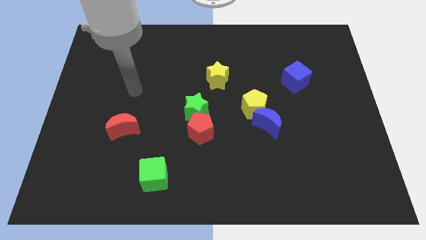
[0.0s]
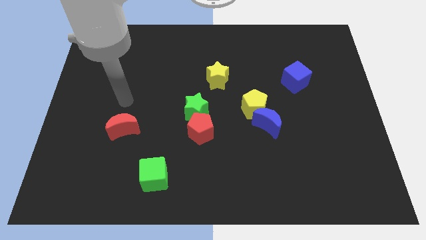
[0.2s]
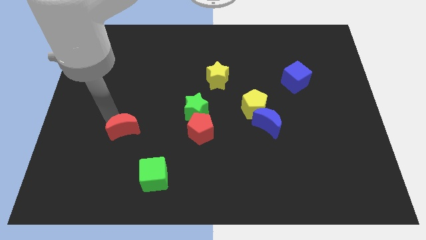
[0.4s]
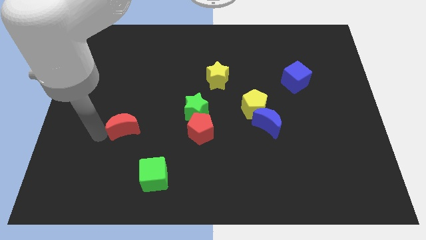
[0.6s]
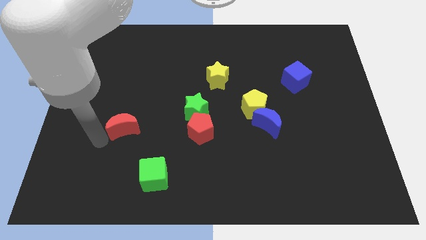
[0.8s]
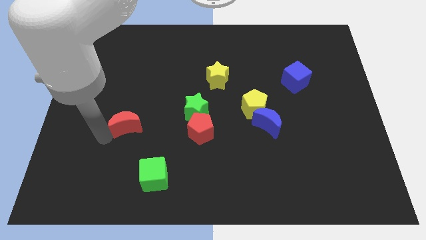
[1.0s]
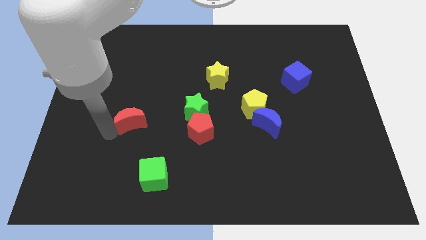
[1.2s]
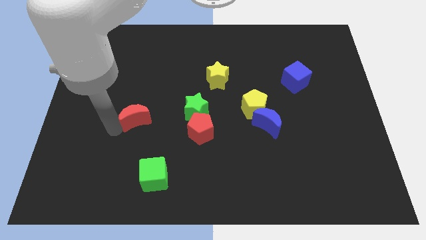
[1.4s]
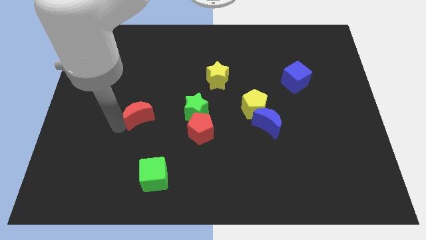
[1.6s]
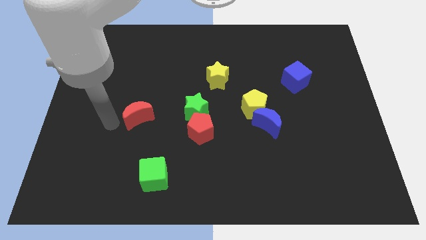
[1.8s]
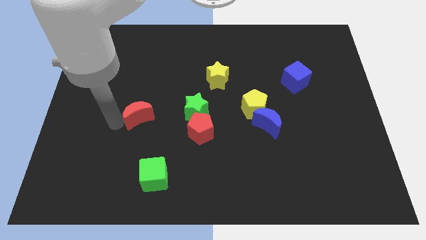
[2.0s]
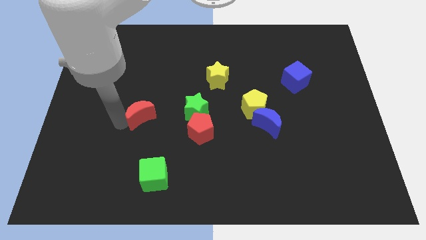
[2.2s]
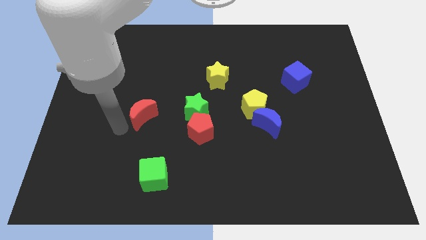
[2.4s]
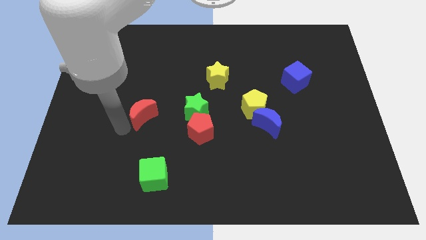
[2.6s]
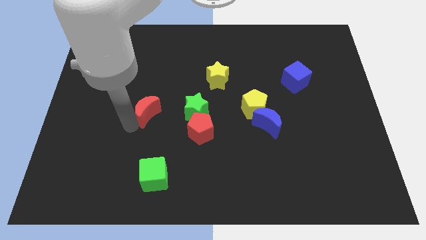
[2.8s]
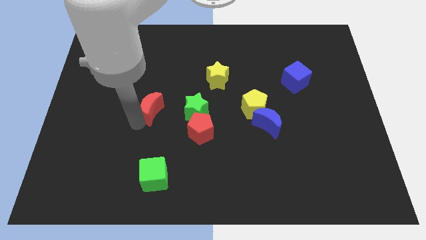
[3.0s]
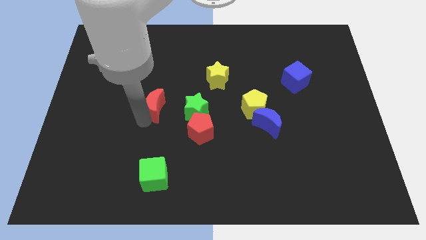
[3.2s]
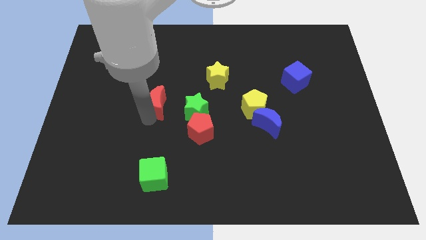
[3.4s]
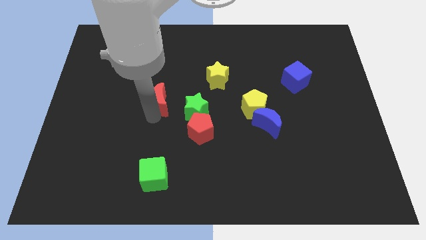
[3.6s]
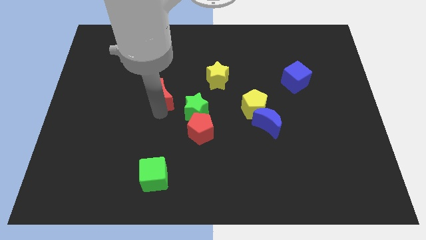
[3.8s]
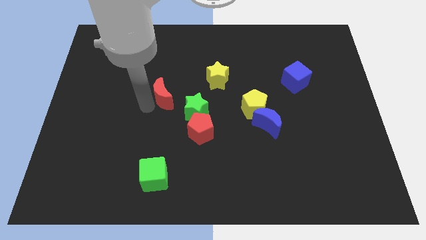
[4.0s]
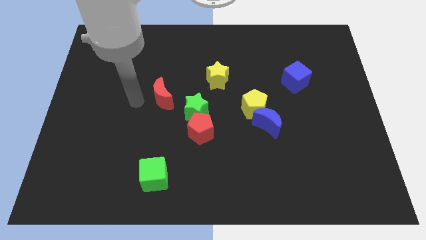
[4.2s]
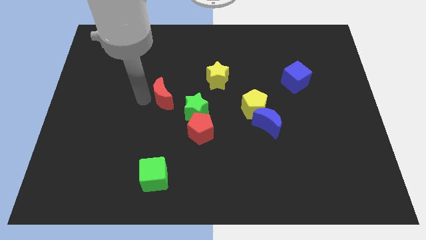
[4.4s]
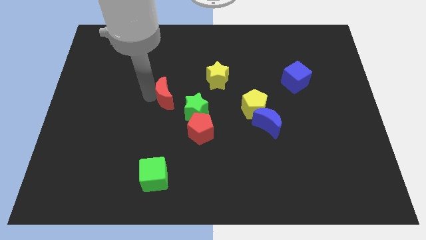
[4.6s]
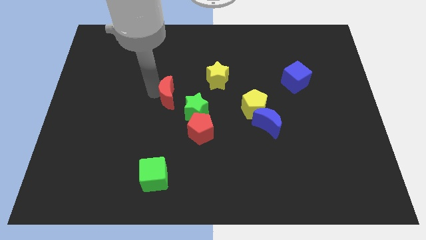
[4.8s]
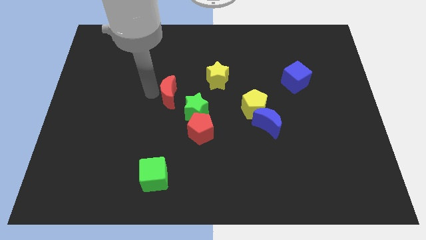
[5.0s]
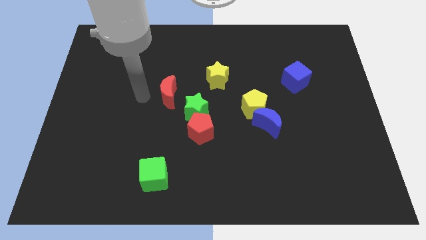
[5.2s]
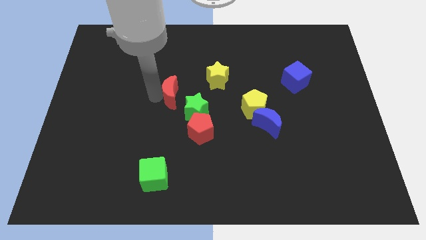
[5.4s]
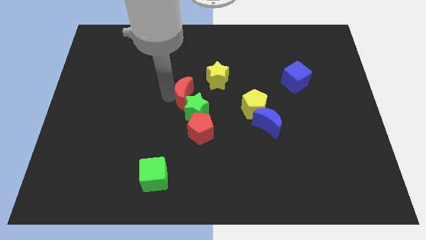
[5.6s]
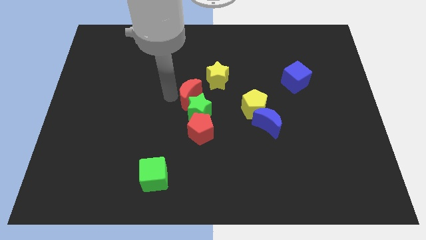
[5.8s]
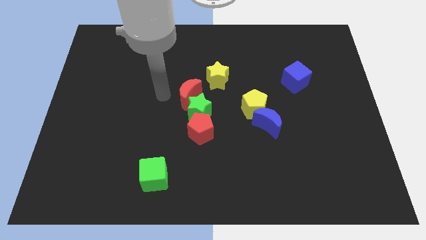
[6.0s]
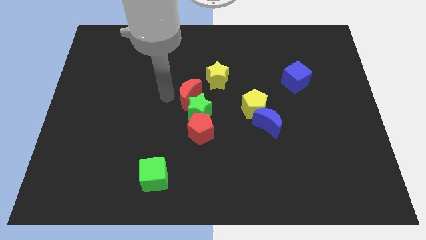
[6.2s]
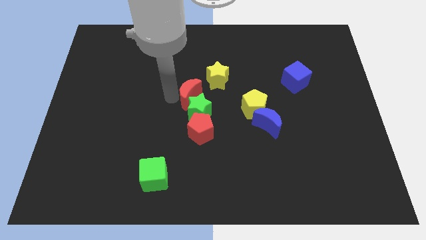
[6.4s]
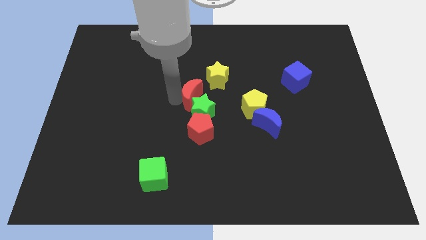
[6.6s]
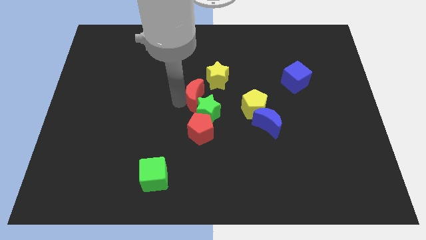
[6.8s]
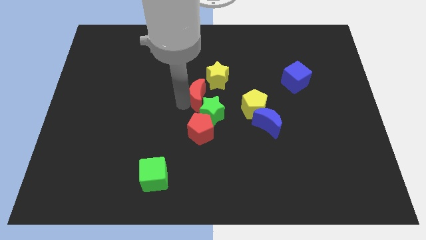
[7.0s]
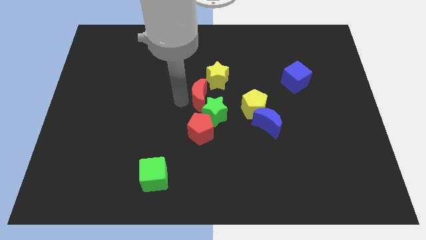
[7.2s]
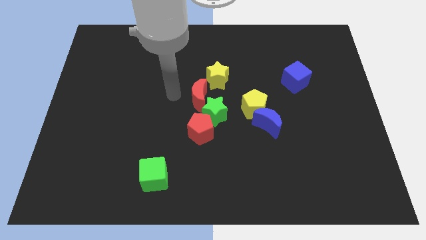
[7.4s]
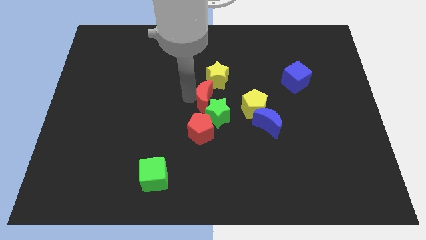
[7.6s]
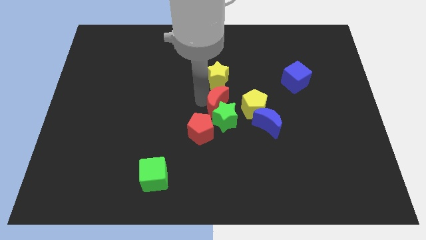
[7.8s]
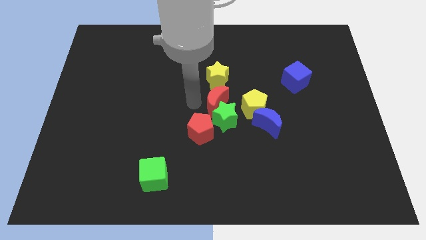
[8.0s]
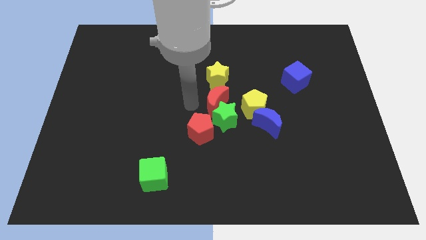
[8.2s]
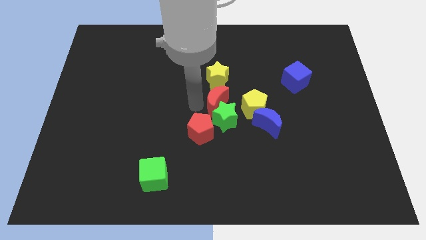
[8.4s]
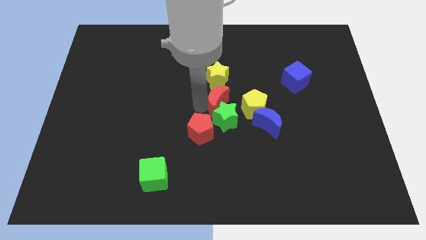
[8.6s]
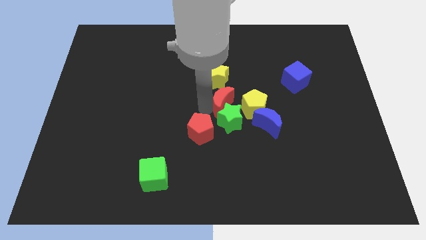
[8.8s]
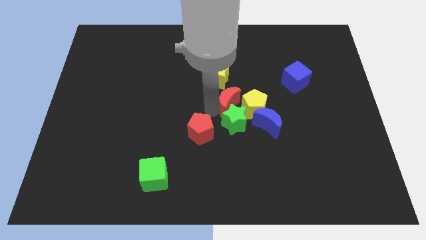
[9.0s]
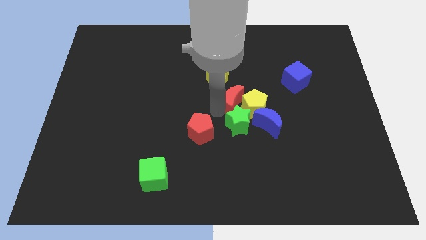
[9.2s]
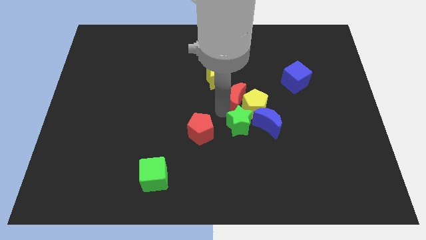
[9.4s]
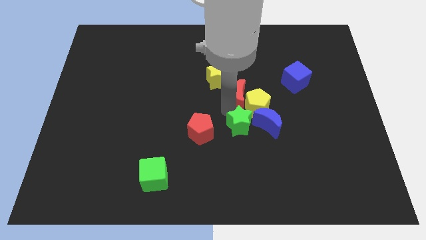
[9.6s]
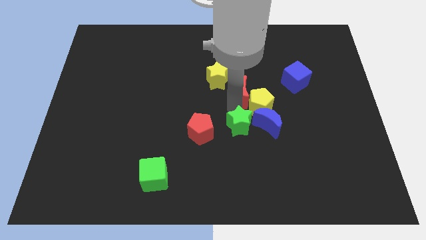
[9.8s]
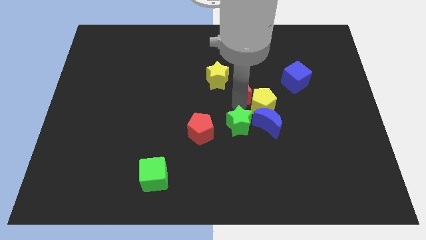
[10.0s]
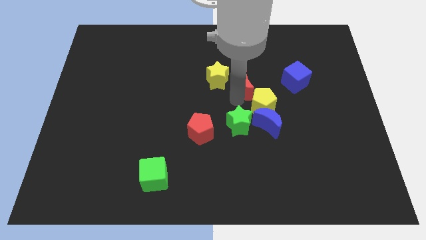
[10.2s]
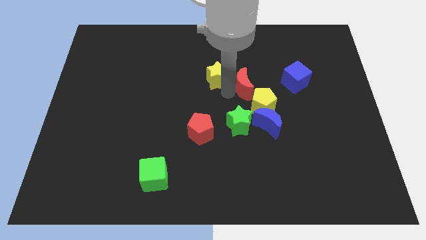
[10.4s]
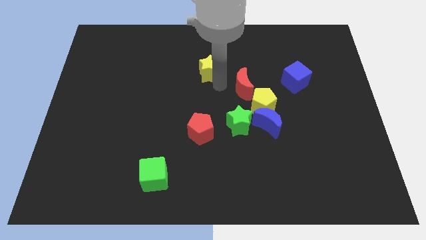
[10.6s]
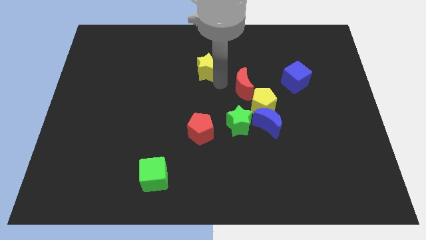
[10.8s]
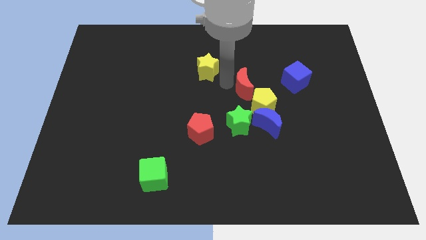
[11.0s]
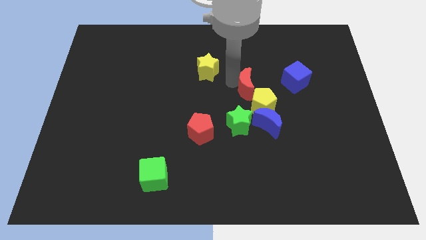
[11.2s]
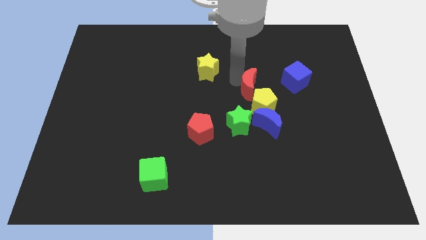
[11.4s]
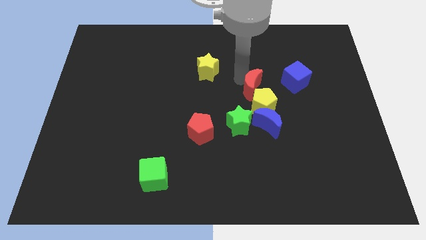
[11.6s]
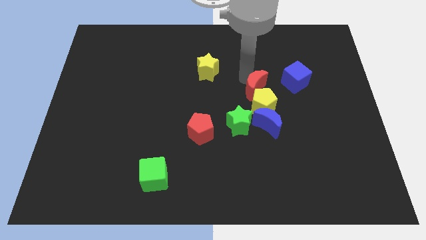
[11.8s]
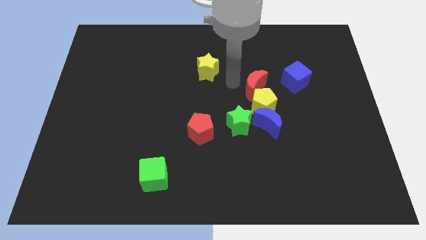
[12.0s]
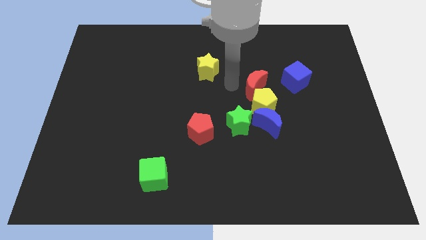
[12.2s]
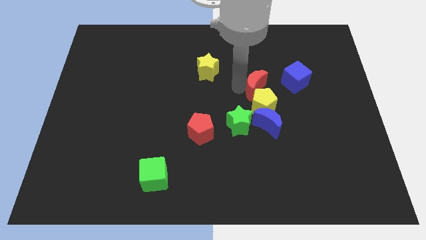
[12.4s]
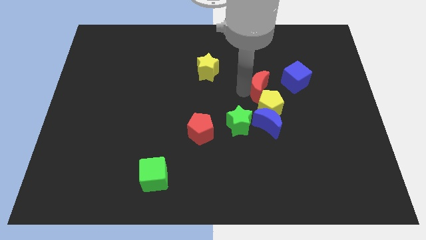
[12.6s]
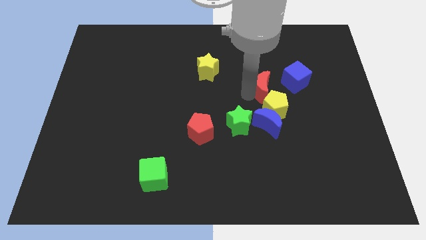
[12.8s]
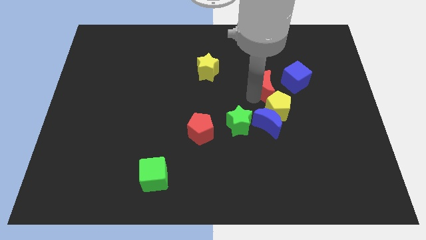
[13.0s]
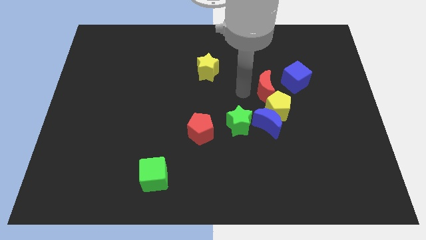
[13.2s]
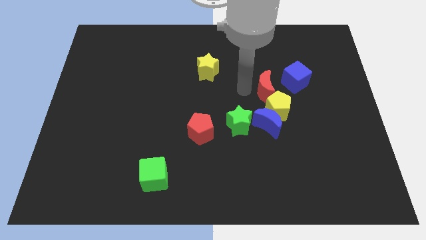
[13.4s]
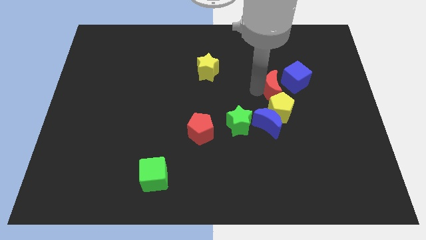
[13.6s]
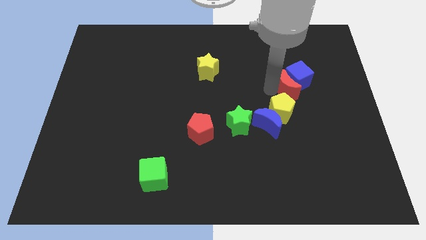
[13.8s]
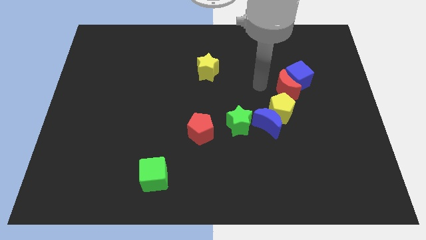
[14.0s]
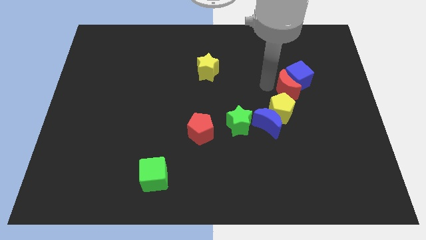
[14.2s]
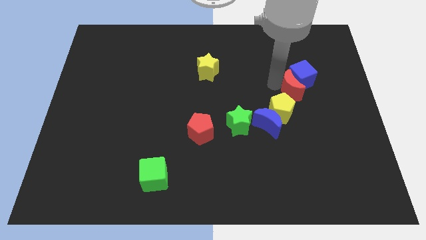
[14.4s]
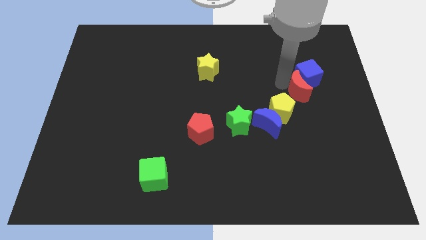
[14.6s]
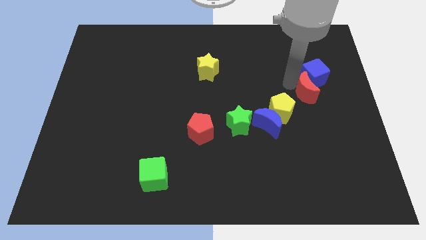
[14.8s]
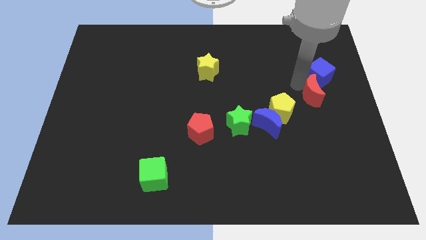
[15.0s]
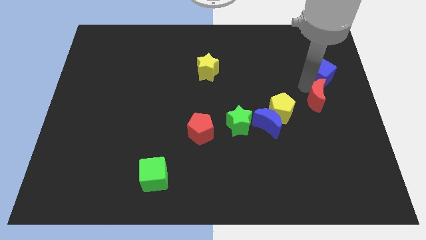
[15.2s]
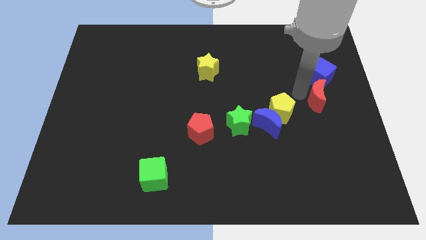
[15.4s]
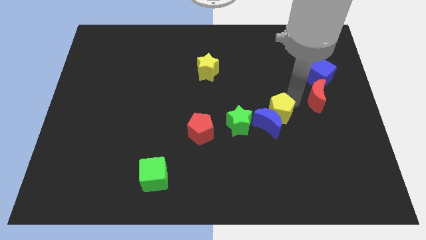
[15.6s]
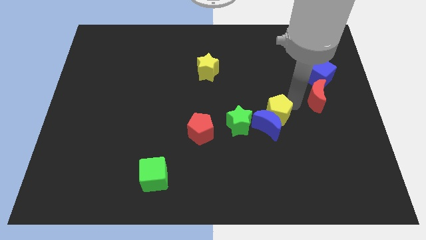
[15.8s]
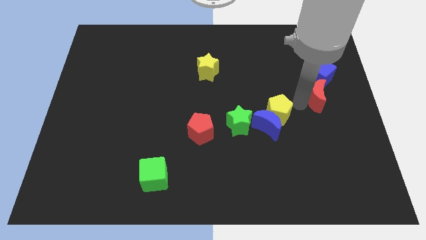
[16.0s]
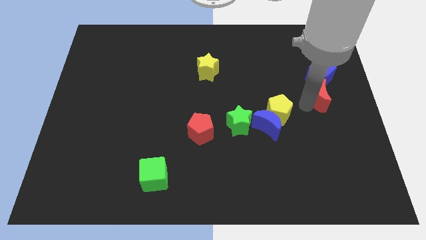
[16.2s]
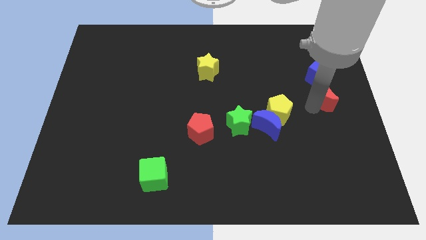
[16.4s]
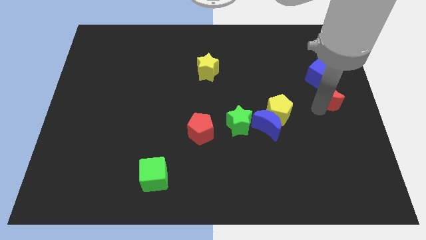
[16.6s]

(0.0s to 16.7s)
put the red moon diagonally down and to the right of the blue cube
